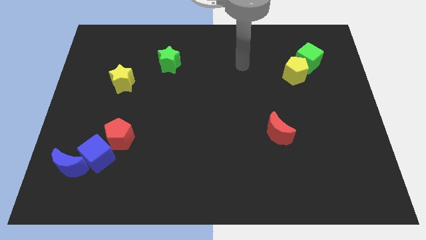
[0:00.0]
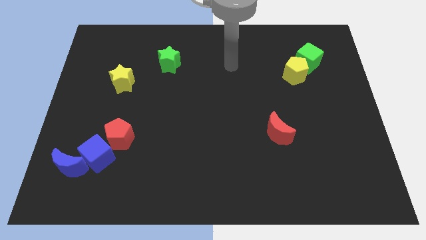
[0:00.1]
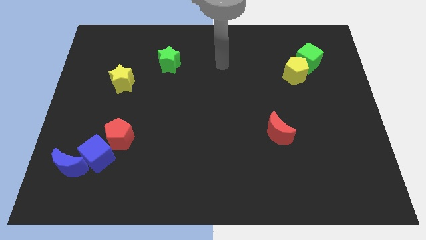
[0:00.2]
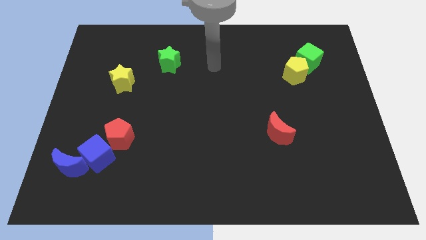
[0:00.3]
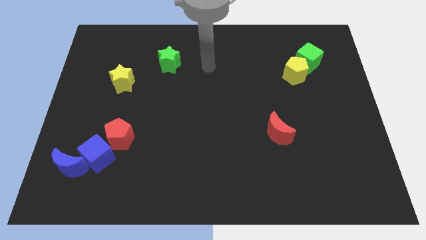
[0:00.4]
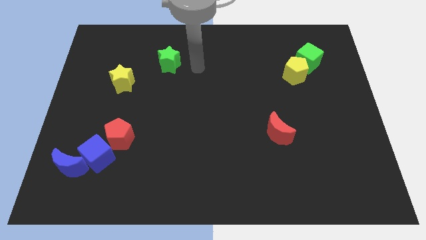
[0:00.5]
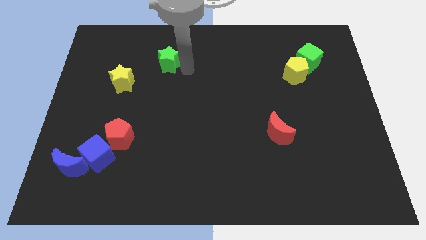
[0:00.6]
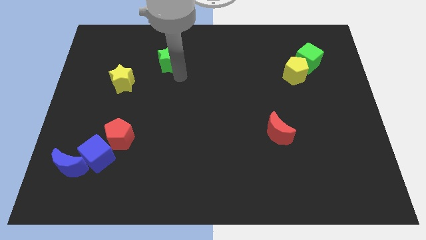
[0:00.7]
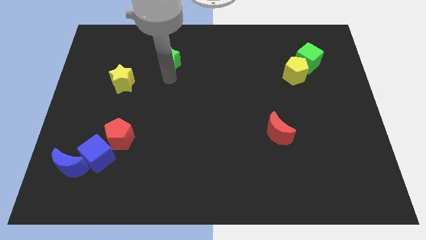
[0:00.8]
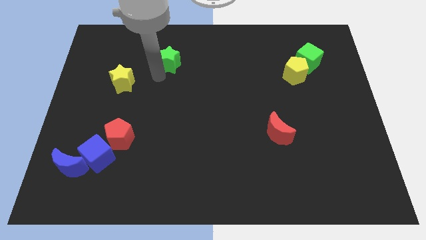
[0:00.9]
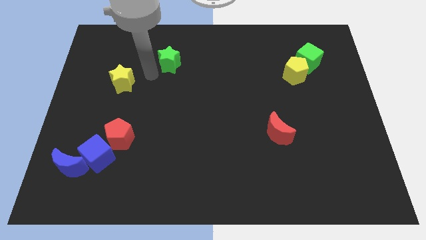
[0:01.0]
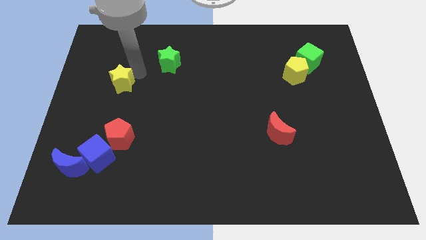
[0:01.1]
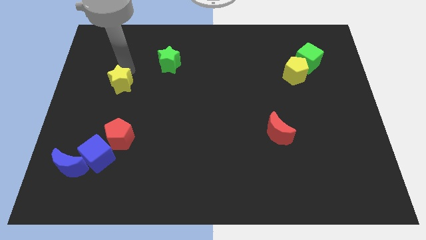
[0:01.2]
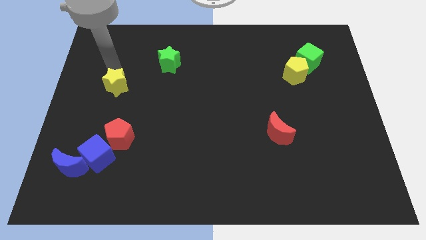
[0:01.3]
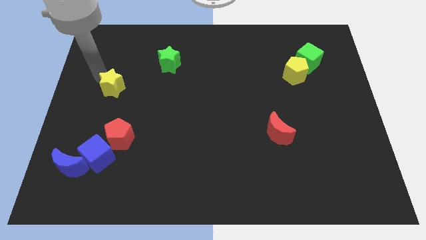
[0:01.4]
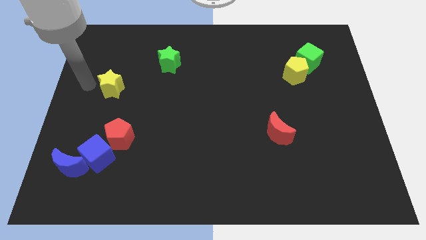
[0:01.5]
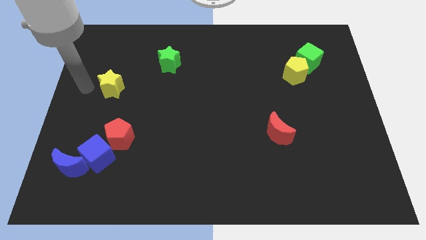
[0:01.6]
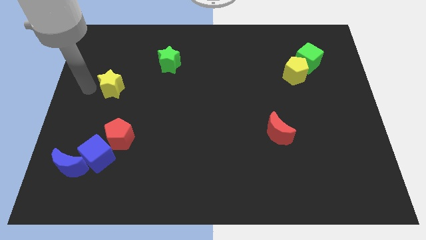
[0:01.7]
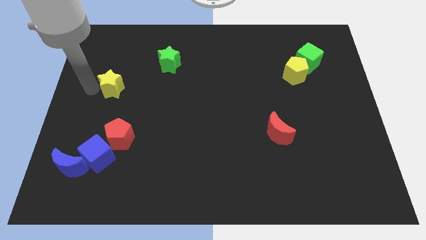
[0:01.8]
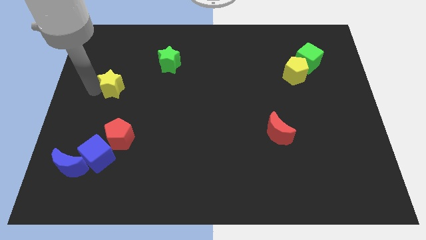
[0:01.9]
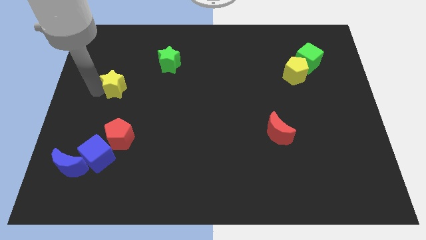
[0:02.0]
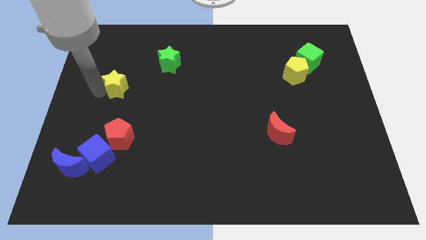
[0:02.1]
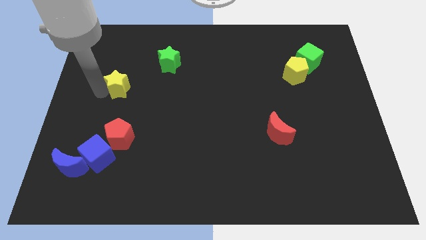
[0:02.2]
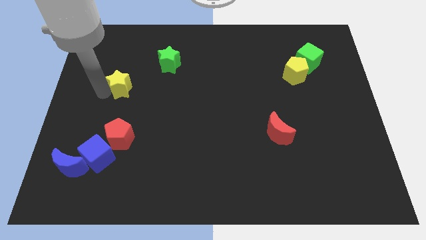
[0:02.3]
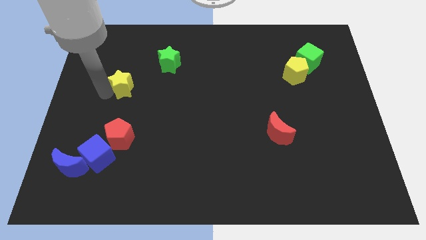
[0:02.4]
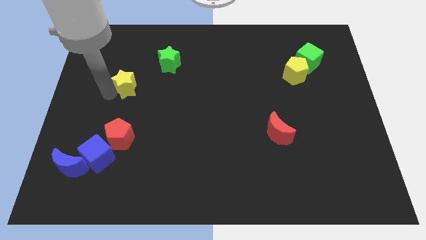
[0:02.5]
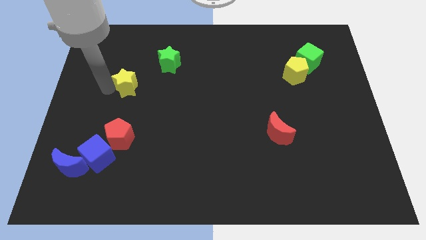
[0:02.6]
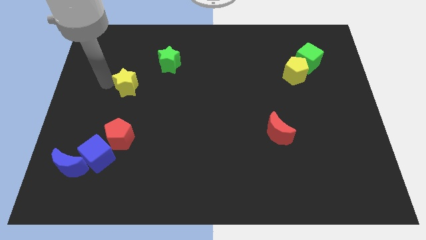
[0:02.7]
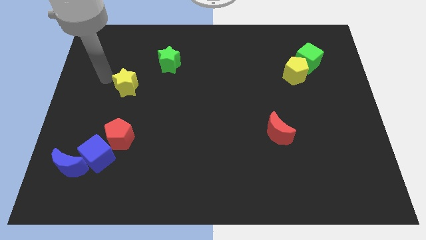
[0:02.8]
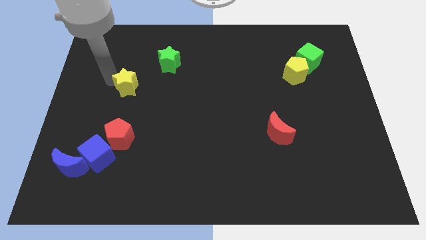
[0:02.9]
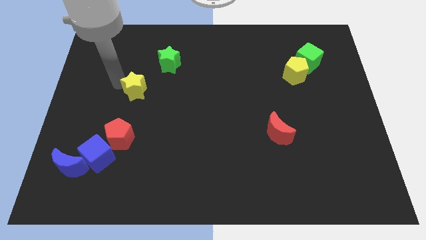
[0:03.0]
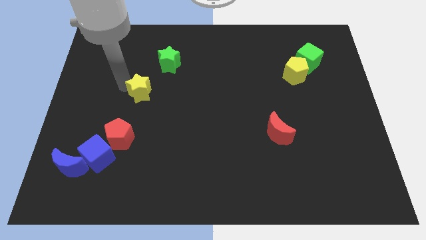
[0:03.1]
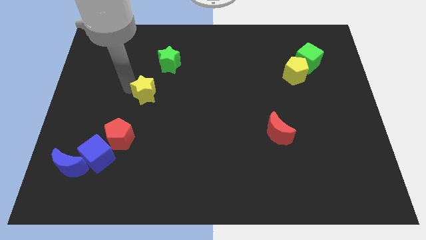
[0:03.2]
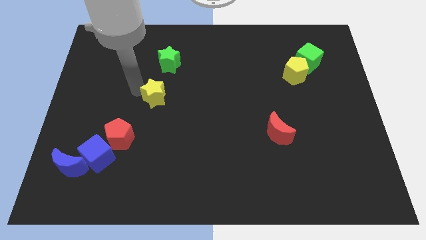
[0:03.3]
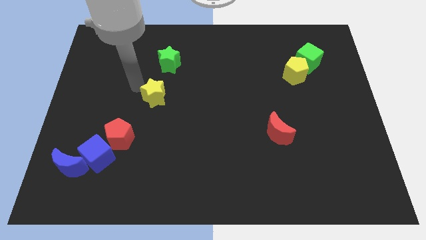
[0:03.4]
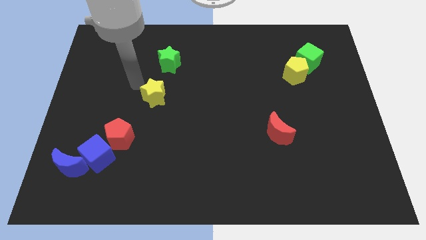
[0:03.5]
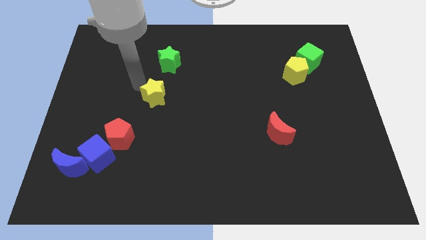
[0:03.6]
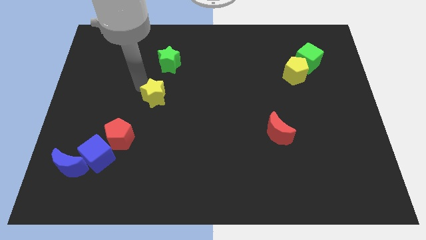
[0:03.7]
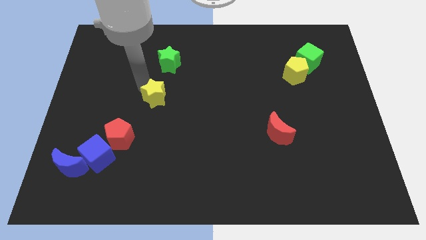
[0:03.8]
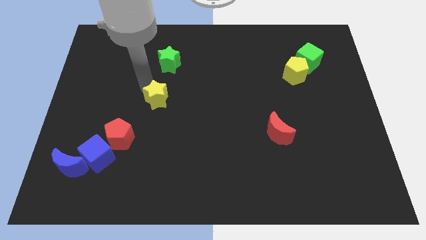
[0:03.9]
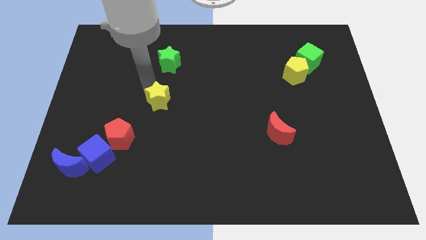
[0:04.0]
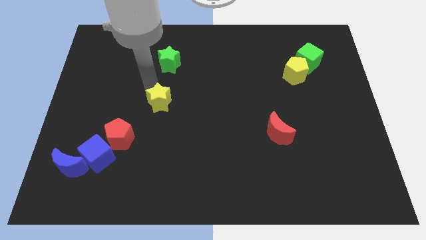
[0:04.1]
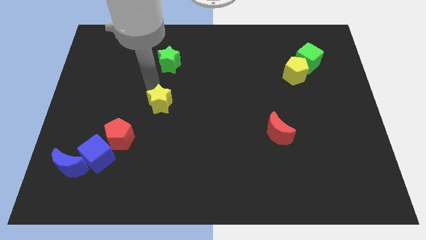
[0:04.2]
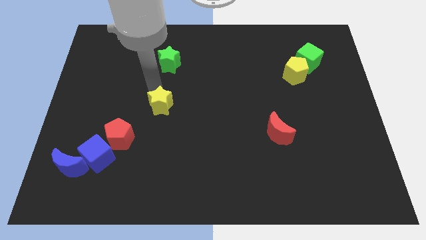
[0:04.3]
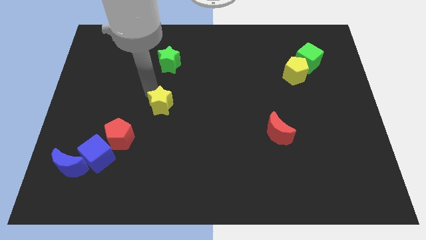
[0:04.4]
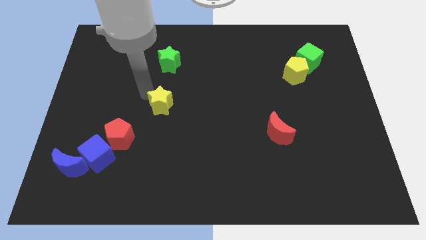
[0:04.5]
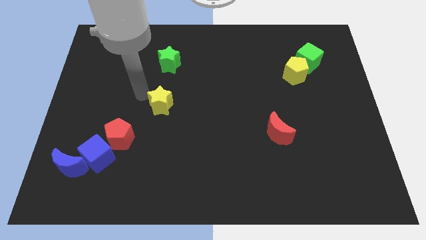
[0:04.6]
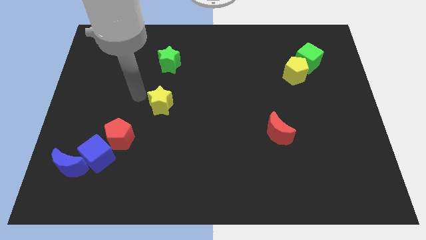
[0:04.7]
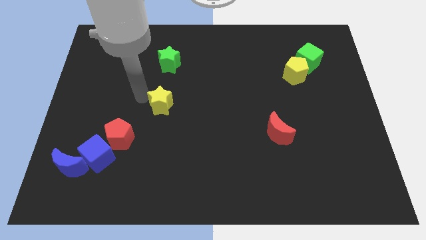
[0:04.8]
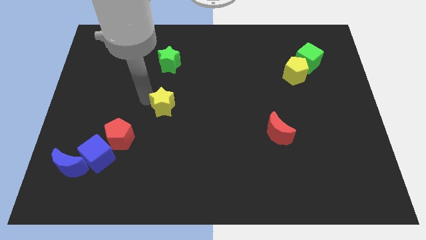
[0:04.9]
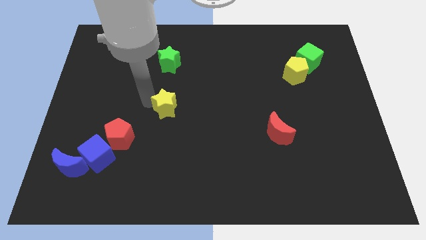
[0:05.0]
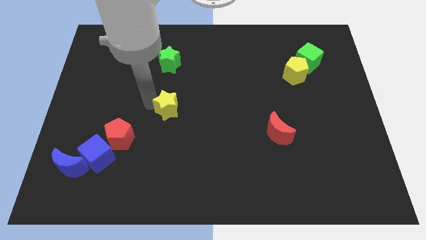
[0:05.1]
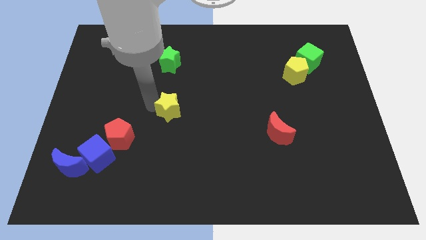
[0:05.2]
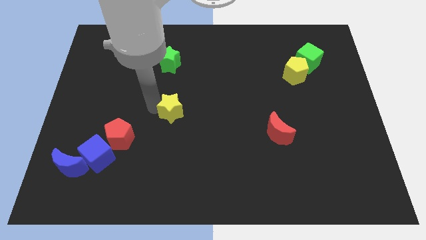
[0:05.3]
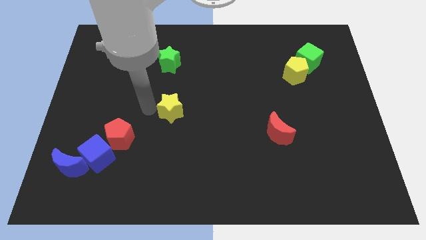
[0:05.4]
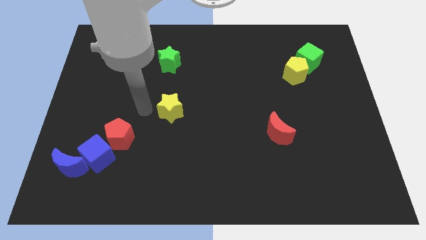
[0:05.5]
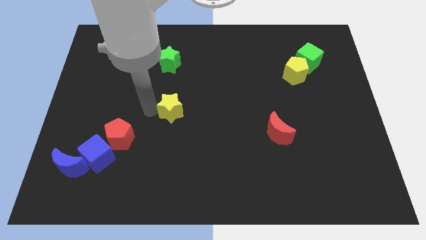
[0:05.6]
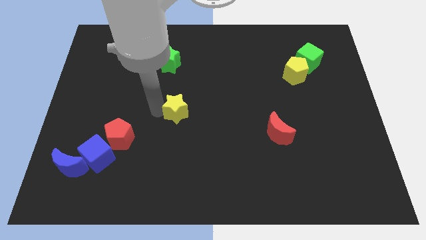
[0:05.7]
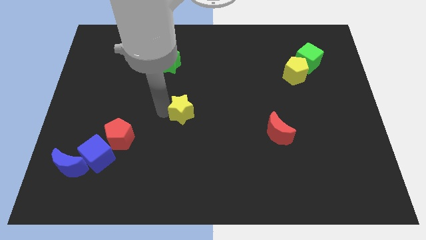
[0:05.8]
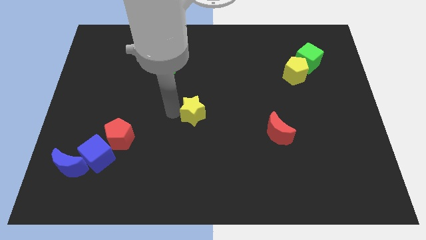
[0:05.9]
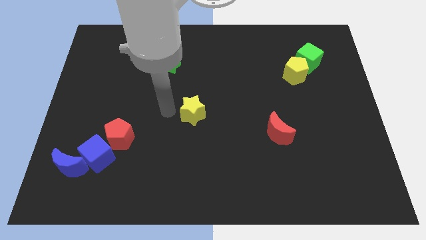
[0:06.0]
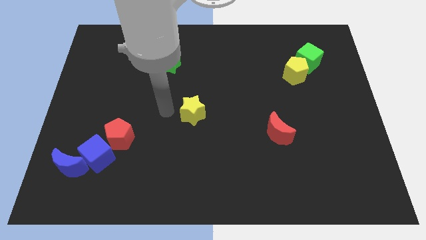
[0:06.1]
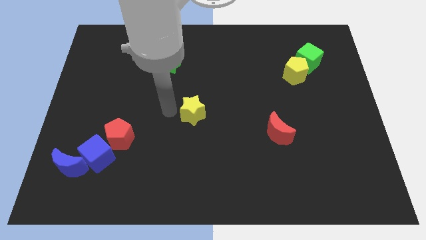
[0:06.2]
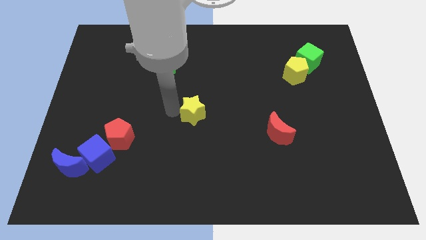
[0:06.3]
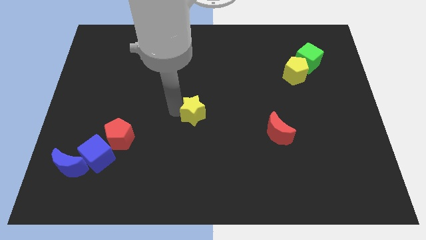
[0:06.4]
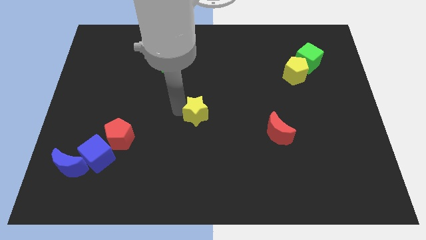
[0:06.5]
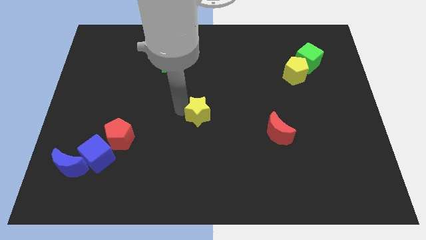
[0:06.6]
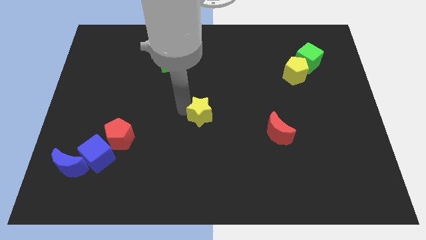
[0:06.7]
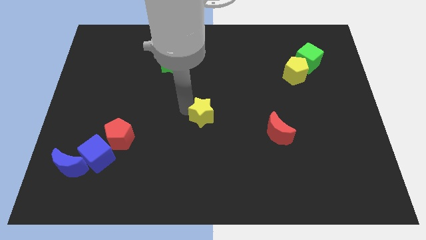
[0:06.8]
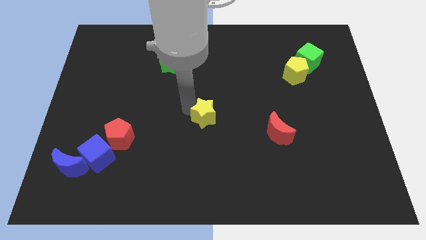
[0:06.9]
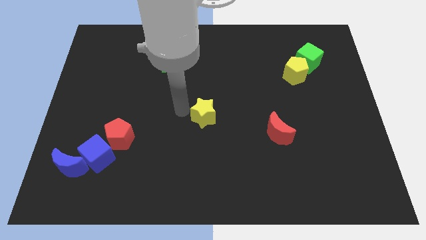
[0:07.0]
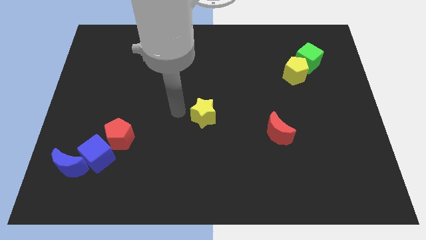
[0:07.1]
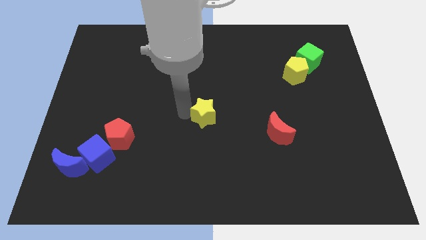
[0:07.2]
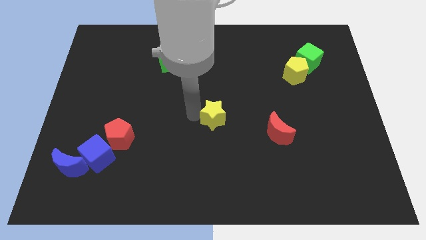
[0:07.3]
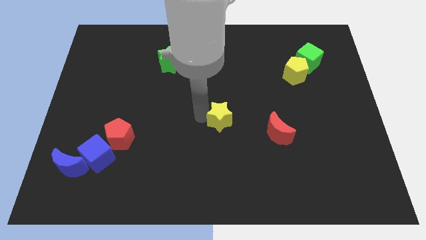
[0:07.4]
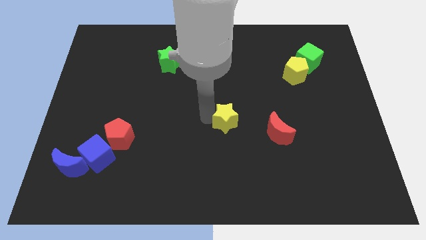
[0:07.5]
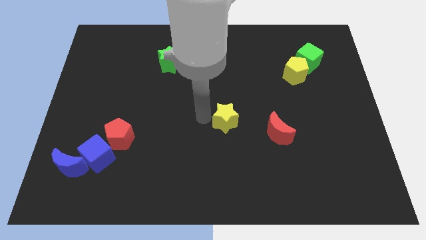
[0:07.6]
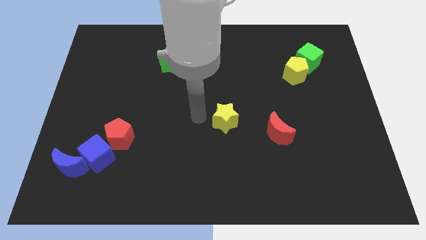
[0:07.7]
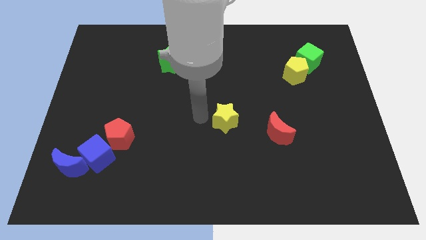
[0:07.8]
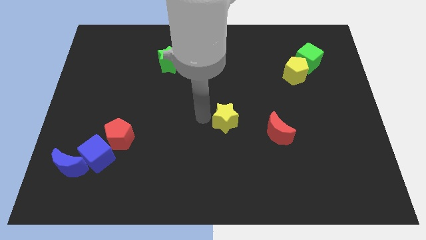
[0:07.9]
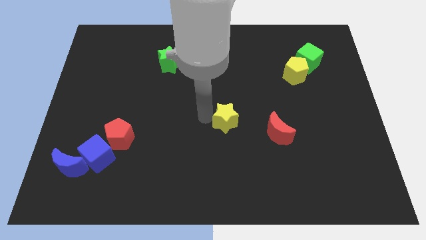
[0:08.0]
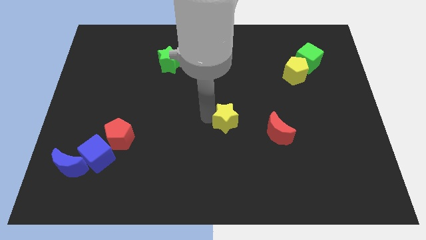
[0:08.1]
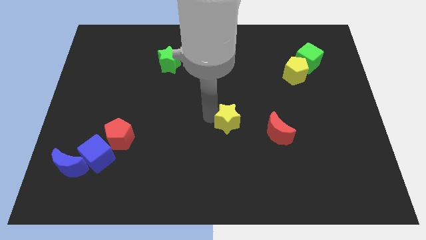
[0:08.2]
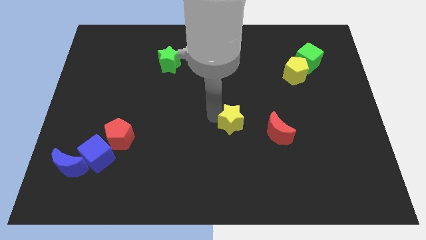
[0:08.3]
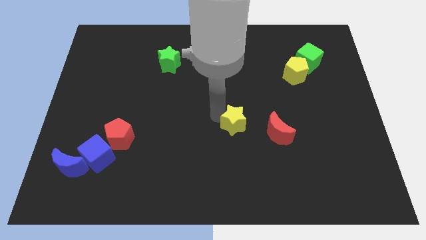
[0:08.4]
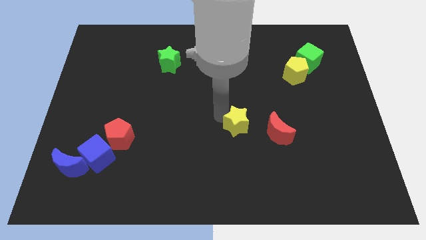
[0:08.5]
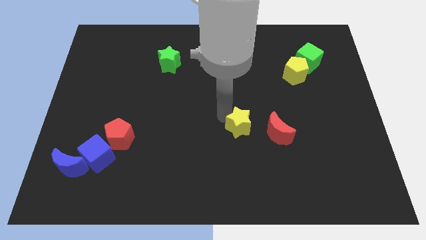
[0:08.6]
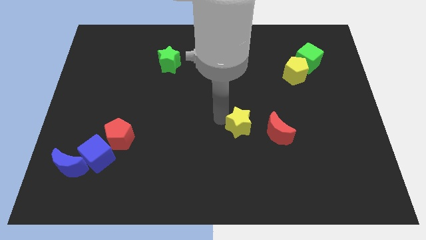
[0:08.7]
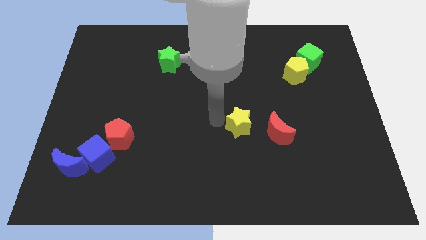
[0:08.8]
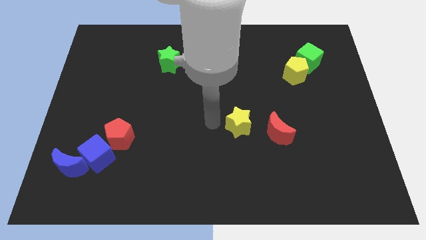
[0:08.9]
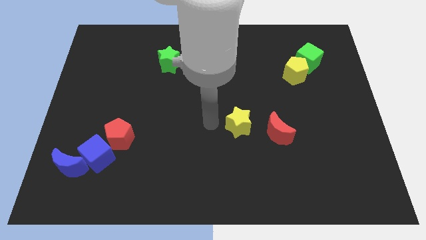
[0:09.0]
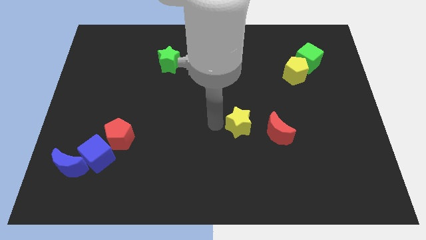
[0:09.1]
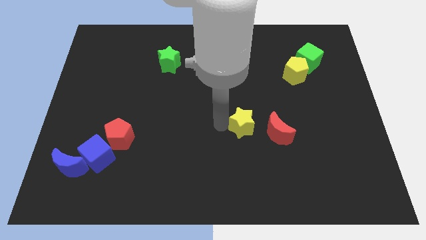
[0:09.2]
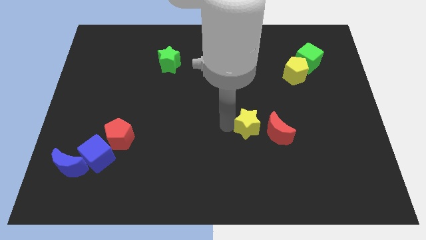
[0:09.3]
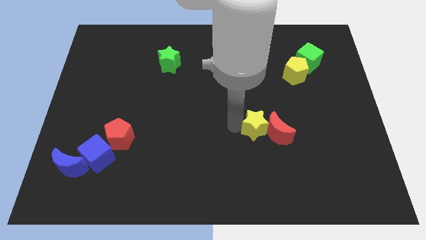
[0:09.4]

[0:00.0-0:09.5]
push the yellow star close to the red moon
